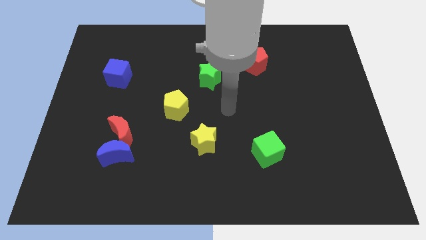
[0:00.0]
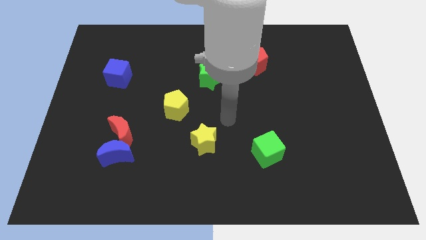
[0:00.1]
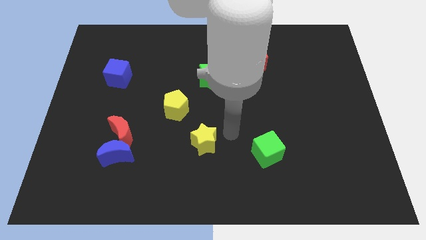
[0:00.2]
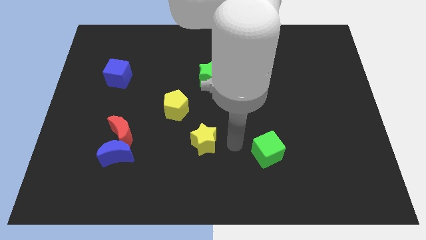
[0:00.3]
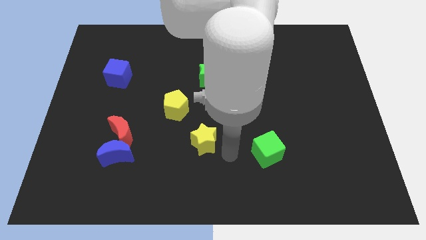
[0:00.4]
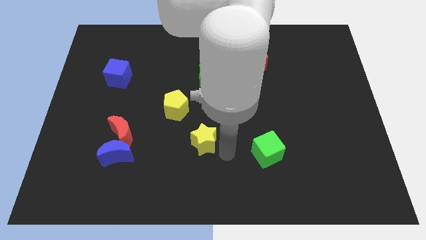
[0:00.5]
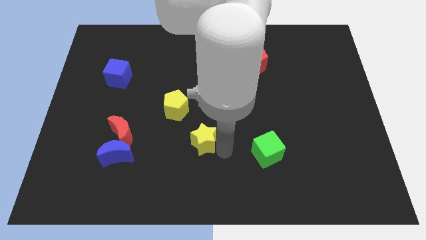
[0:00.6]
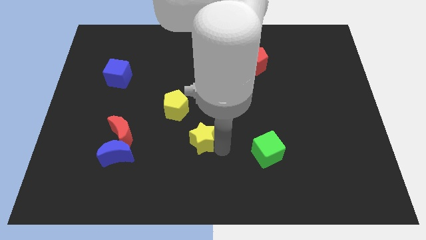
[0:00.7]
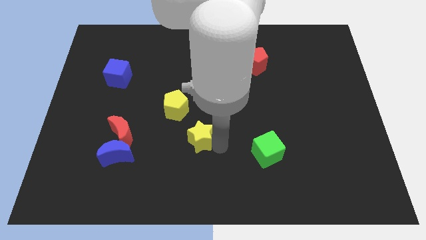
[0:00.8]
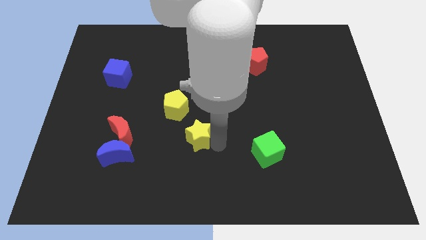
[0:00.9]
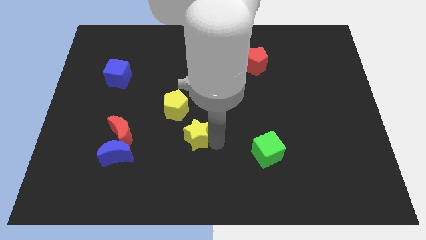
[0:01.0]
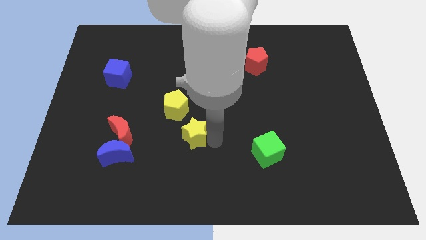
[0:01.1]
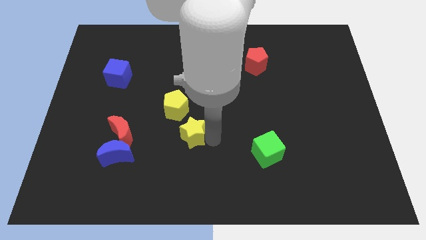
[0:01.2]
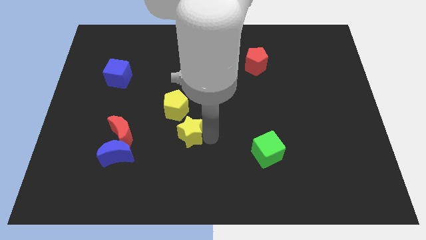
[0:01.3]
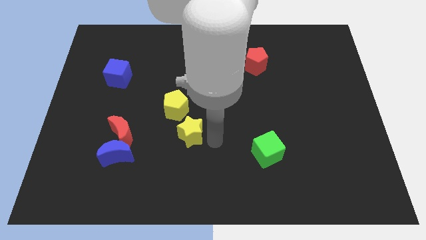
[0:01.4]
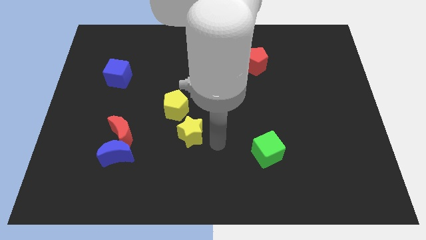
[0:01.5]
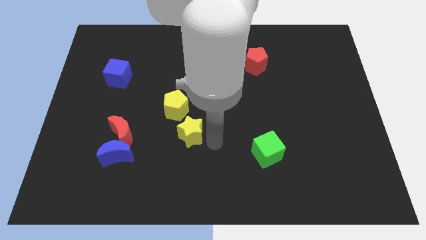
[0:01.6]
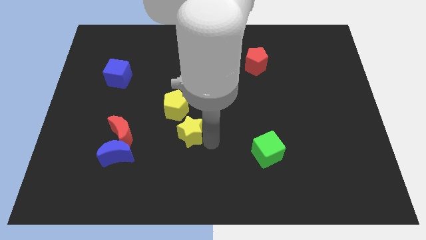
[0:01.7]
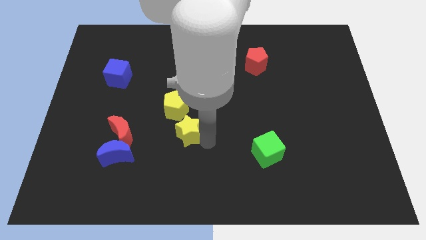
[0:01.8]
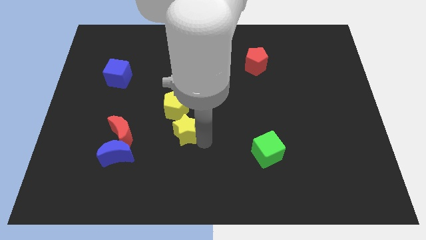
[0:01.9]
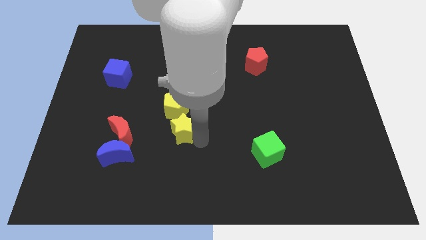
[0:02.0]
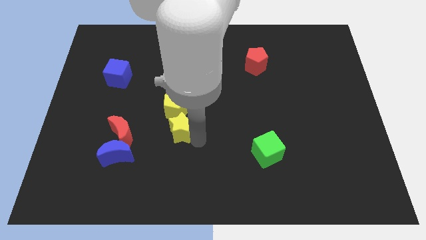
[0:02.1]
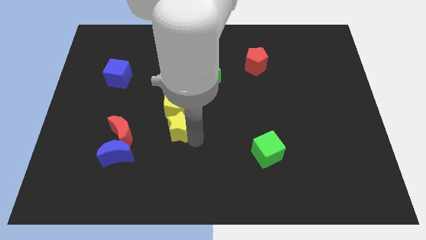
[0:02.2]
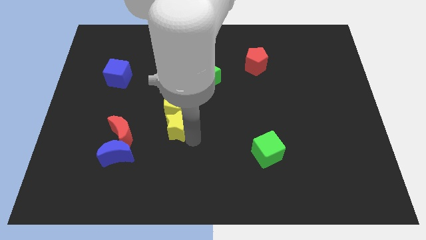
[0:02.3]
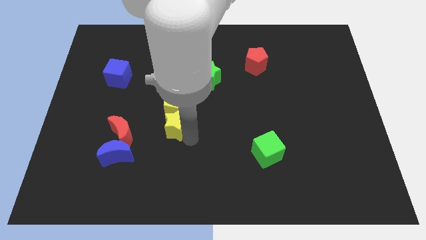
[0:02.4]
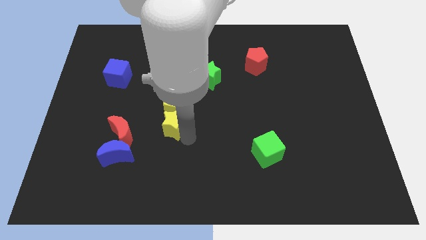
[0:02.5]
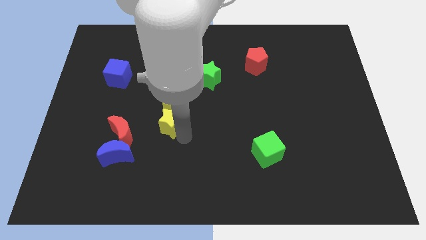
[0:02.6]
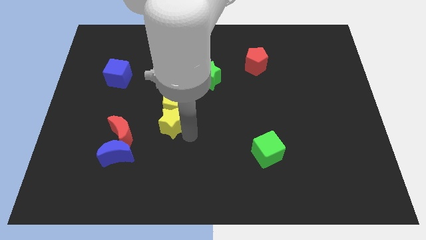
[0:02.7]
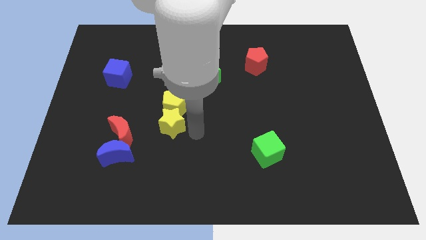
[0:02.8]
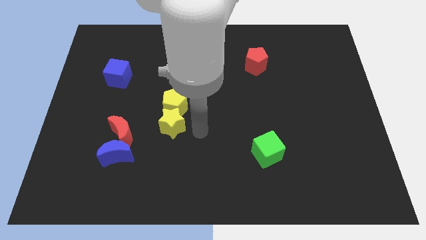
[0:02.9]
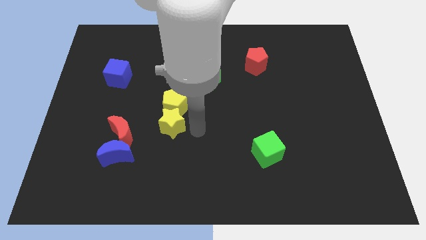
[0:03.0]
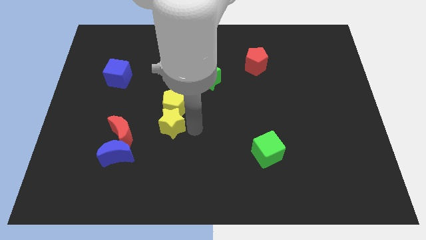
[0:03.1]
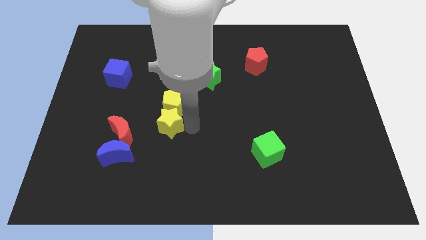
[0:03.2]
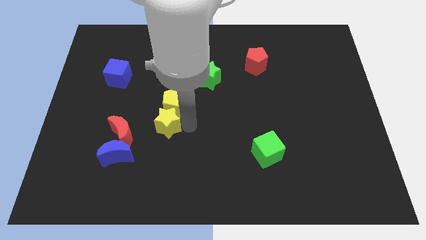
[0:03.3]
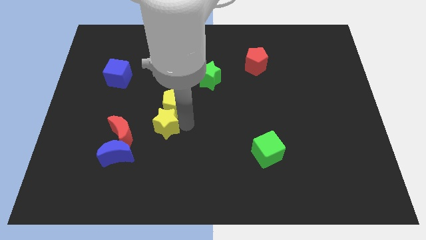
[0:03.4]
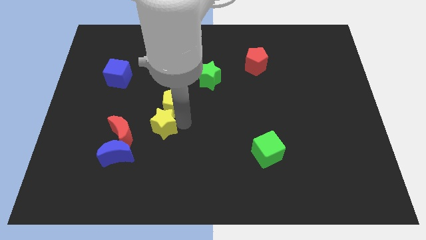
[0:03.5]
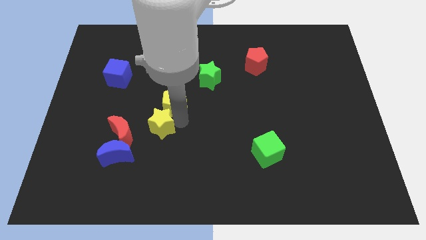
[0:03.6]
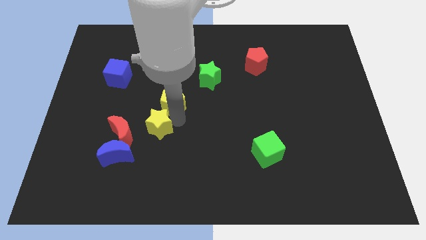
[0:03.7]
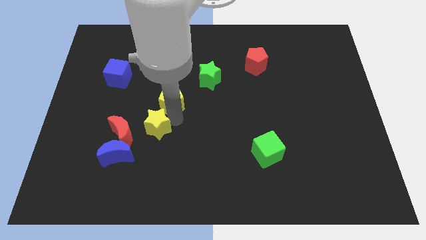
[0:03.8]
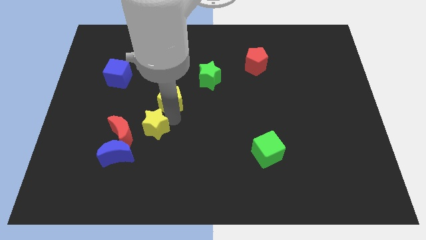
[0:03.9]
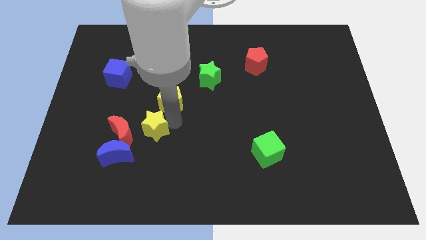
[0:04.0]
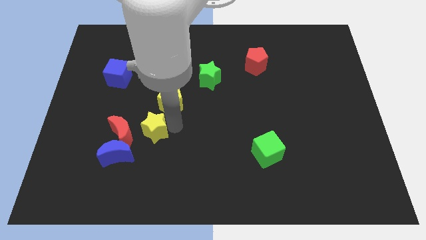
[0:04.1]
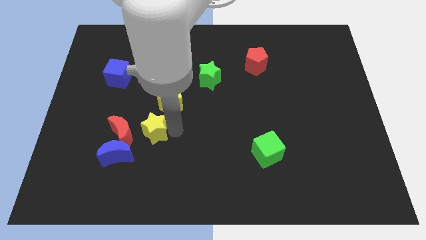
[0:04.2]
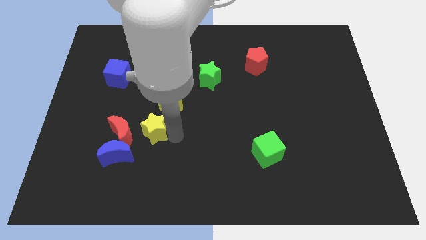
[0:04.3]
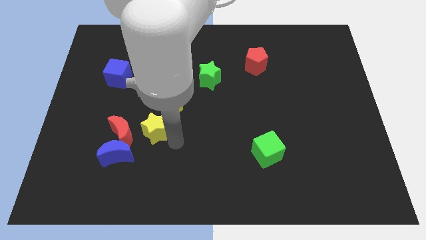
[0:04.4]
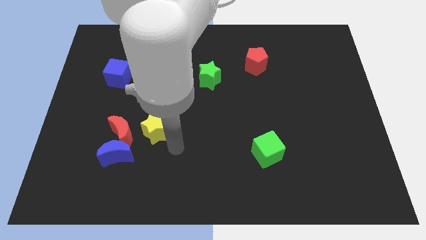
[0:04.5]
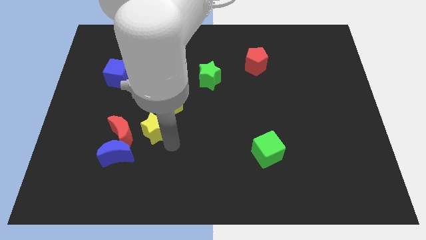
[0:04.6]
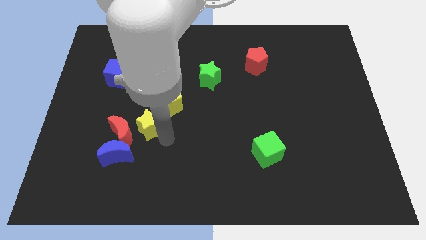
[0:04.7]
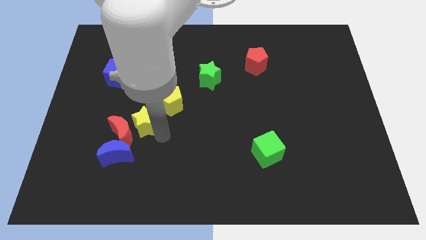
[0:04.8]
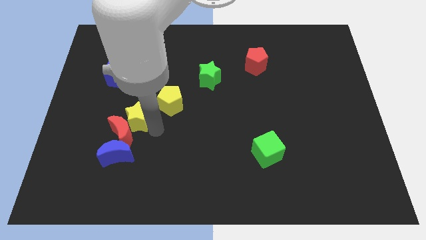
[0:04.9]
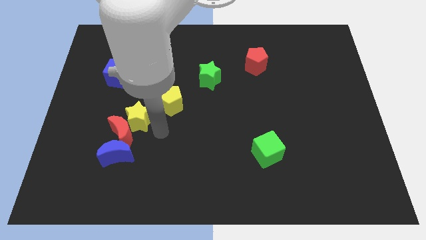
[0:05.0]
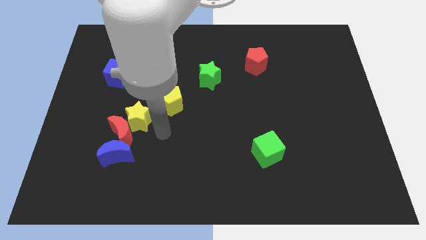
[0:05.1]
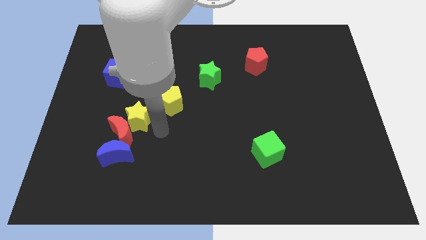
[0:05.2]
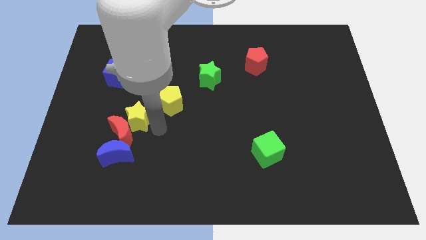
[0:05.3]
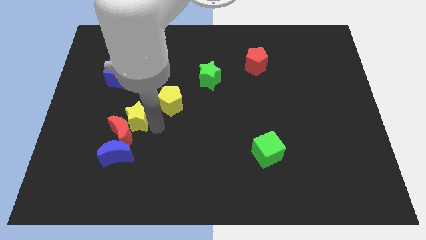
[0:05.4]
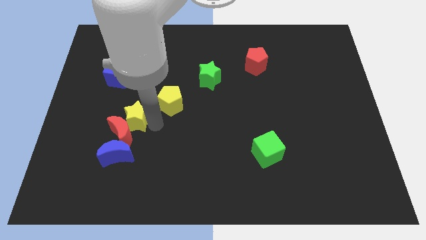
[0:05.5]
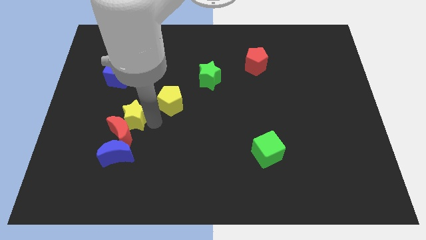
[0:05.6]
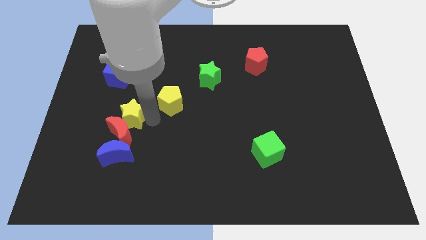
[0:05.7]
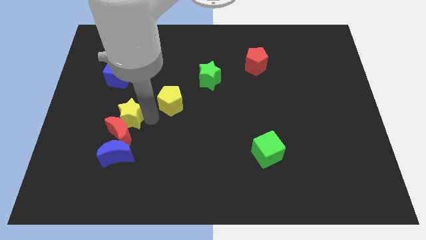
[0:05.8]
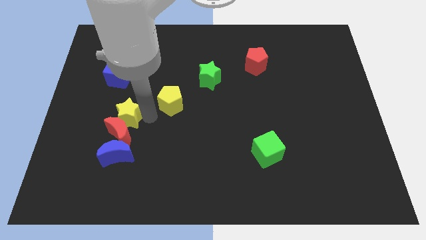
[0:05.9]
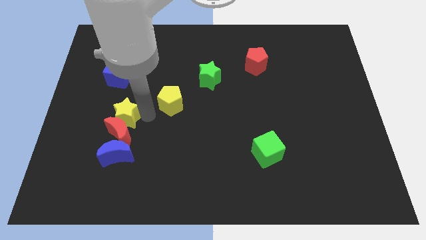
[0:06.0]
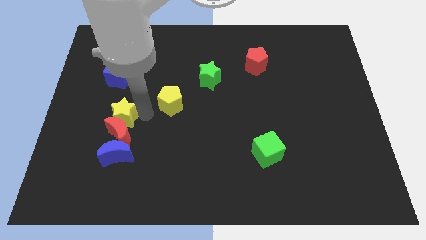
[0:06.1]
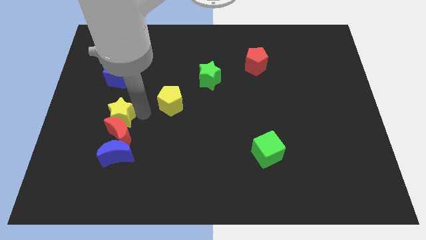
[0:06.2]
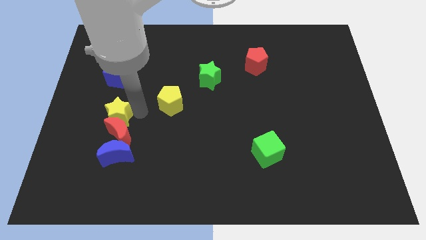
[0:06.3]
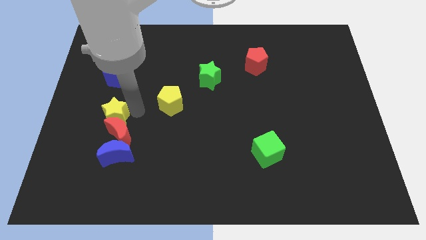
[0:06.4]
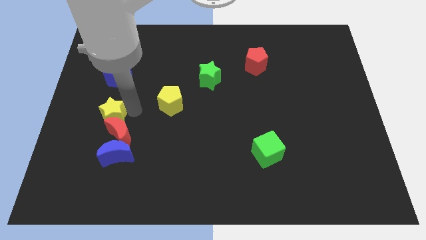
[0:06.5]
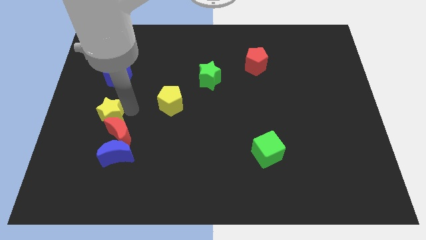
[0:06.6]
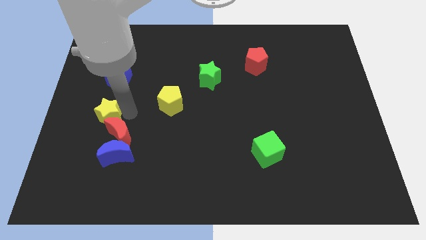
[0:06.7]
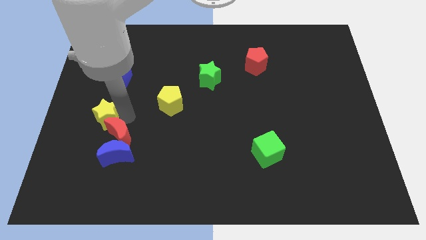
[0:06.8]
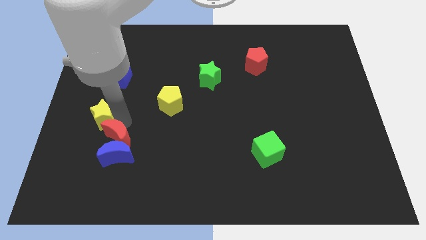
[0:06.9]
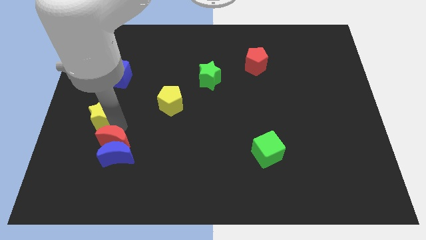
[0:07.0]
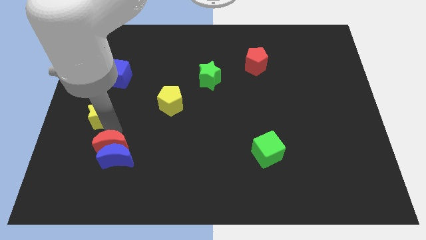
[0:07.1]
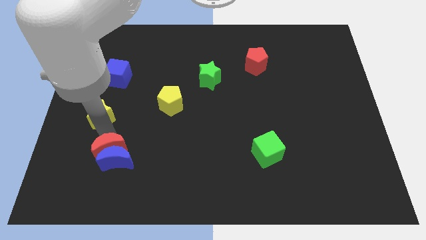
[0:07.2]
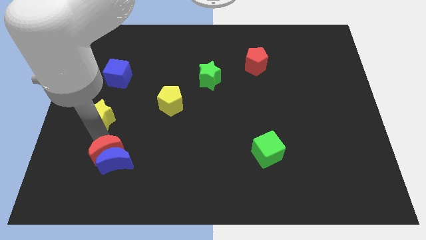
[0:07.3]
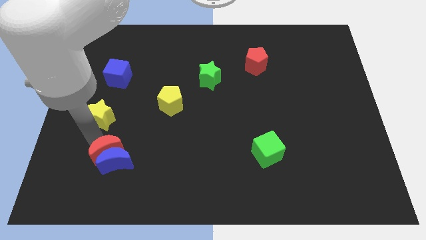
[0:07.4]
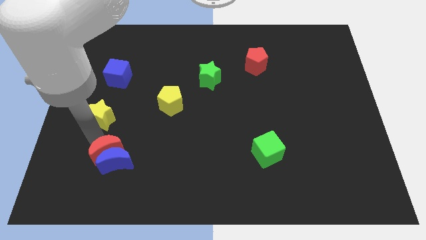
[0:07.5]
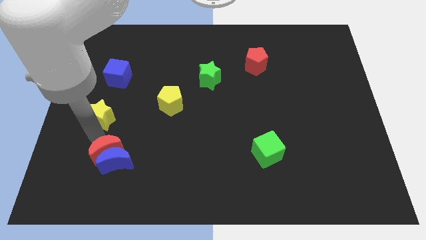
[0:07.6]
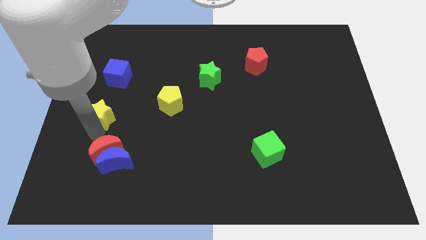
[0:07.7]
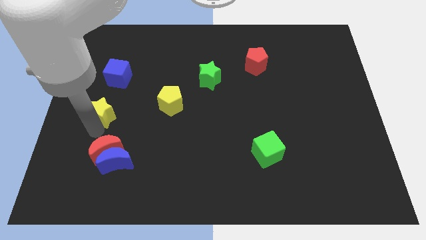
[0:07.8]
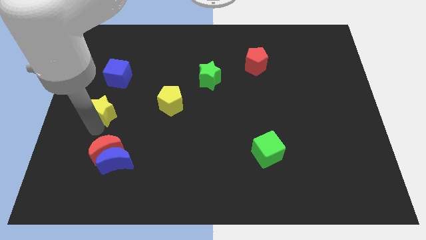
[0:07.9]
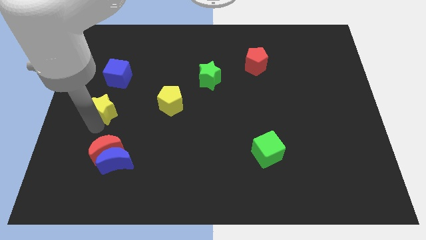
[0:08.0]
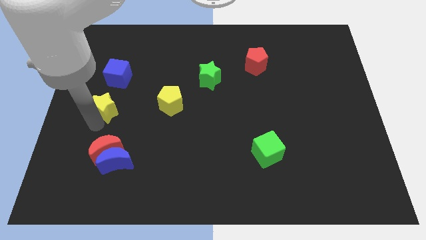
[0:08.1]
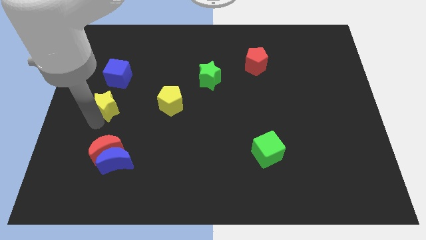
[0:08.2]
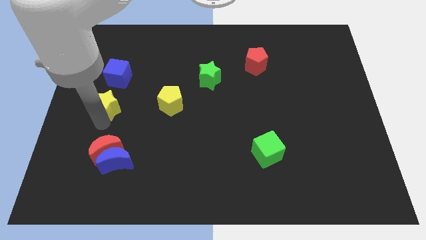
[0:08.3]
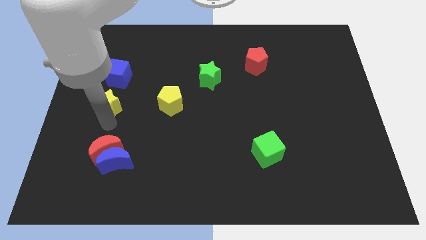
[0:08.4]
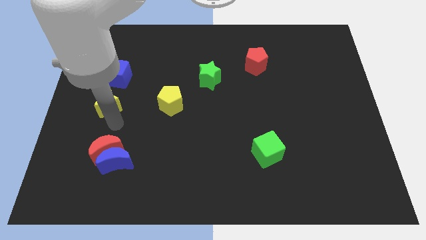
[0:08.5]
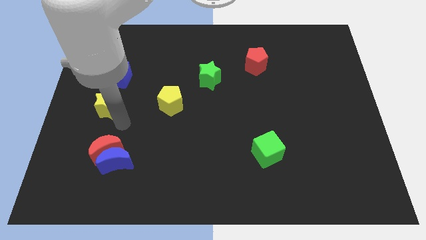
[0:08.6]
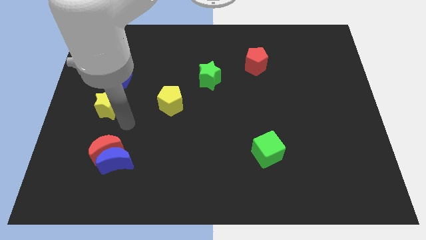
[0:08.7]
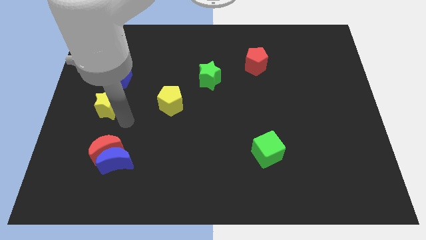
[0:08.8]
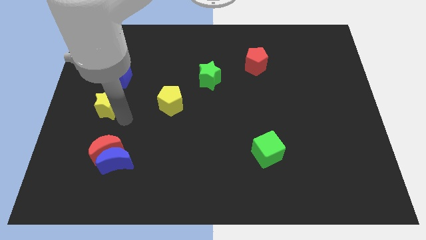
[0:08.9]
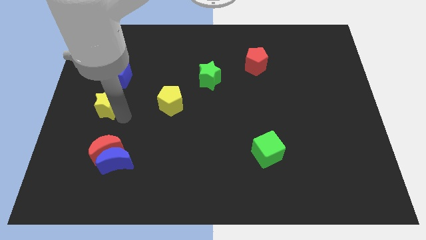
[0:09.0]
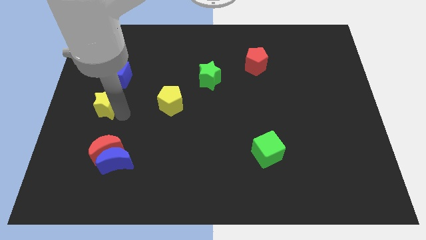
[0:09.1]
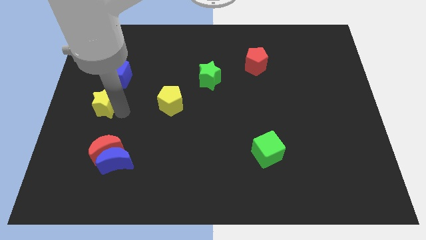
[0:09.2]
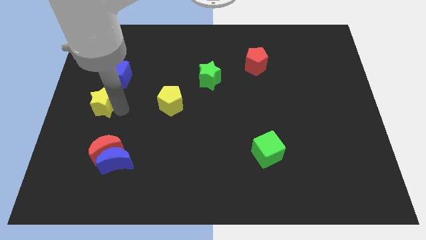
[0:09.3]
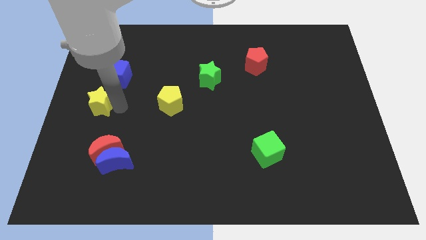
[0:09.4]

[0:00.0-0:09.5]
move the yellow star to the bottom left side of the blue cube
